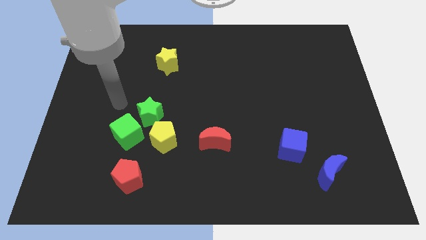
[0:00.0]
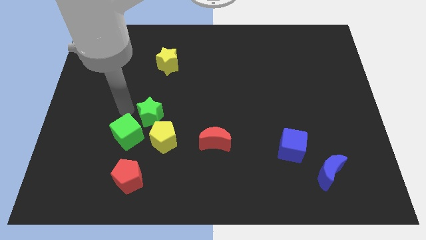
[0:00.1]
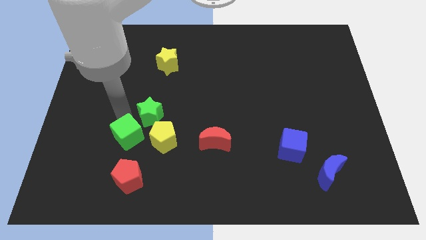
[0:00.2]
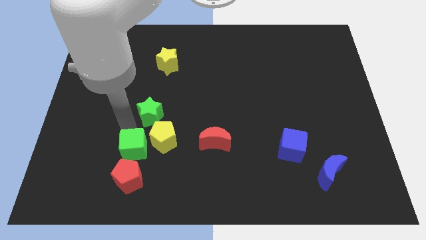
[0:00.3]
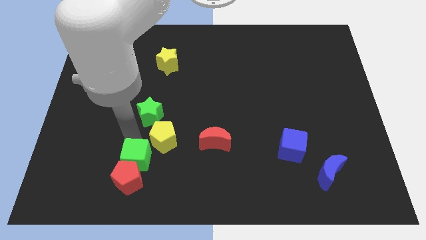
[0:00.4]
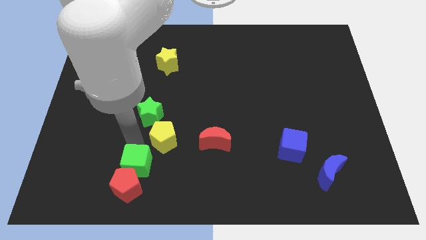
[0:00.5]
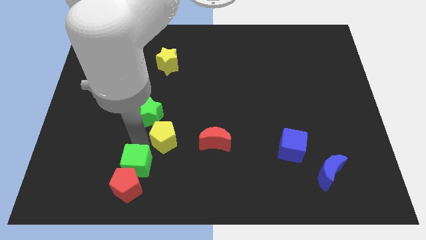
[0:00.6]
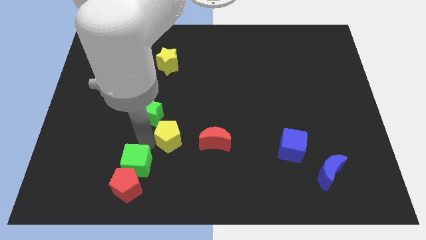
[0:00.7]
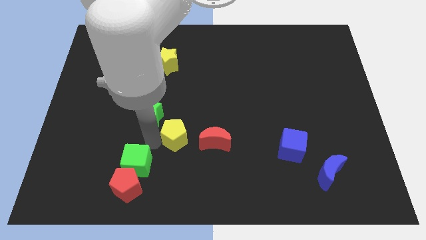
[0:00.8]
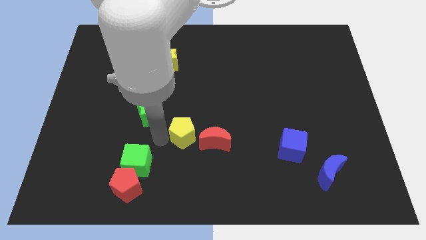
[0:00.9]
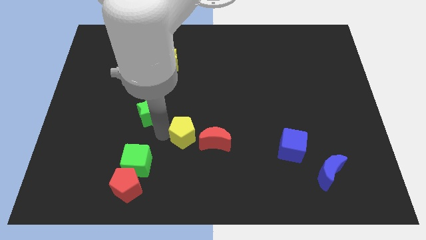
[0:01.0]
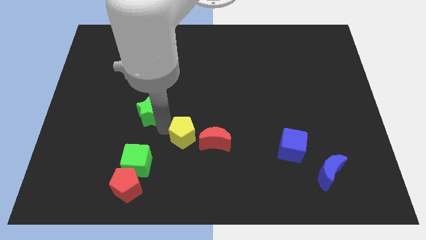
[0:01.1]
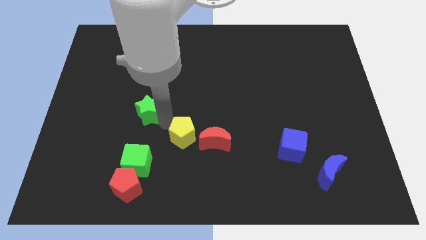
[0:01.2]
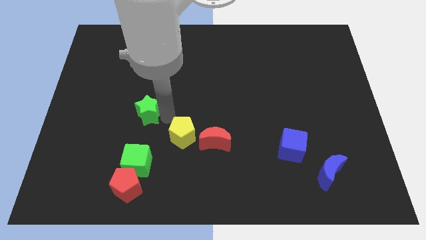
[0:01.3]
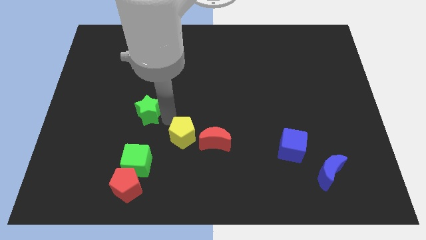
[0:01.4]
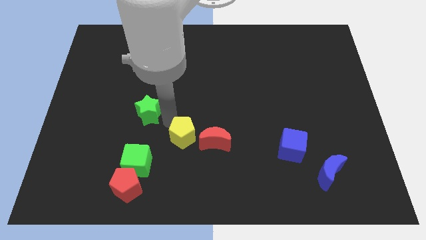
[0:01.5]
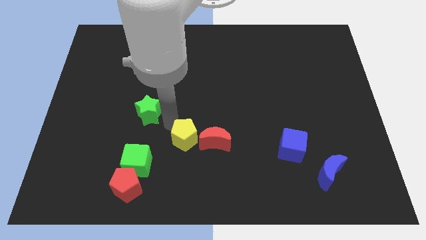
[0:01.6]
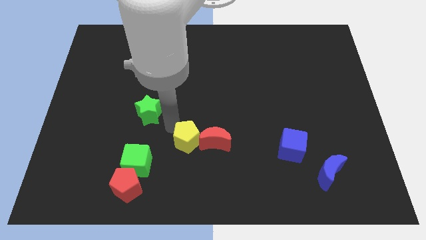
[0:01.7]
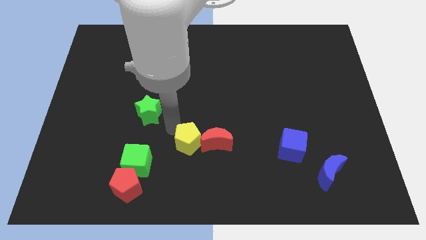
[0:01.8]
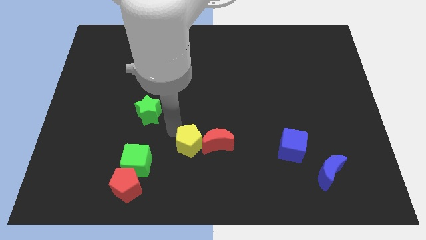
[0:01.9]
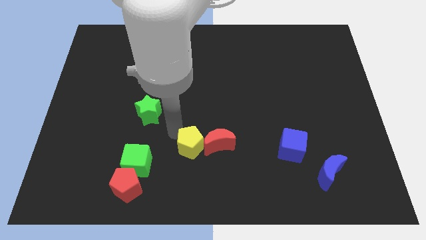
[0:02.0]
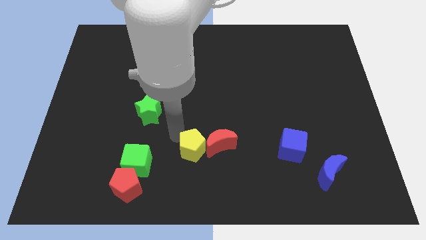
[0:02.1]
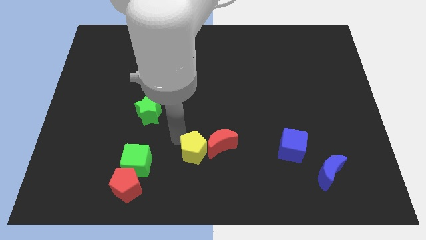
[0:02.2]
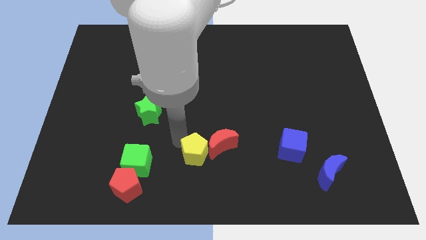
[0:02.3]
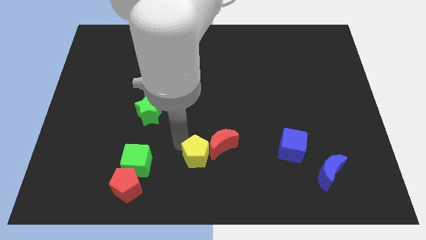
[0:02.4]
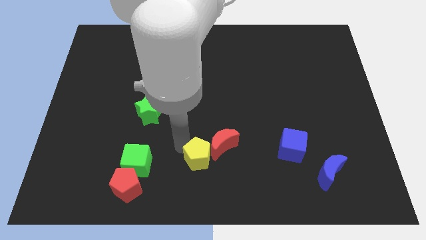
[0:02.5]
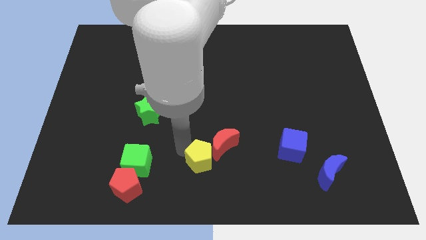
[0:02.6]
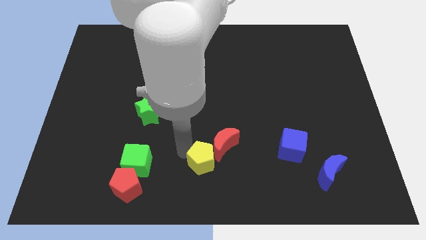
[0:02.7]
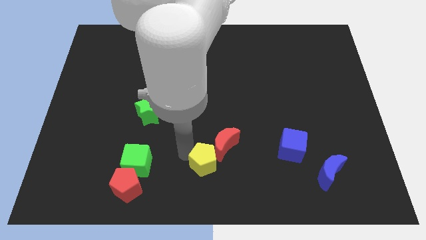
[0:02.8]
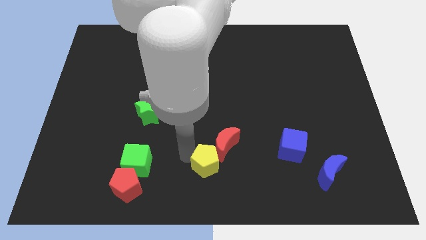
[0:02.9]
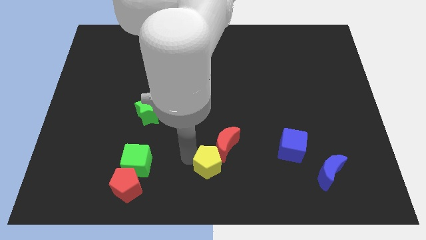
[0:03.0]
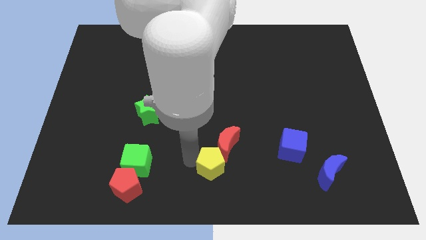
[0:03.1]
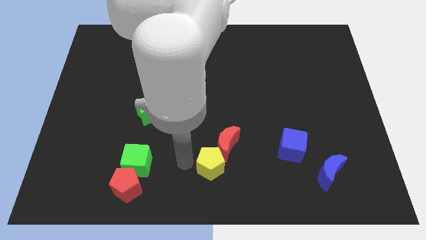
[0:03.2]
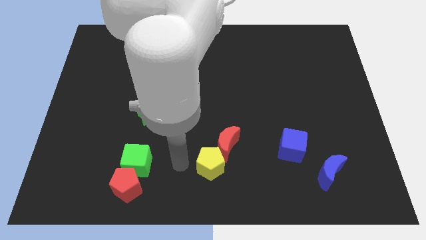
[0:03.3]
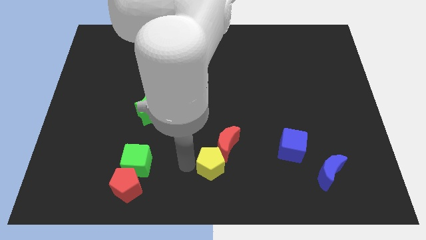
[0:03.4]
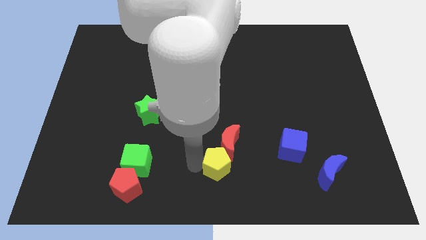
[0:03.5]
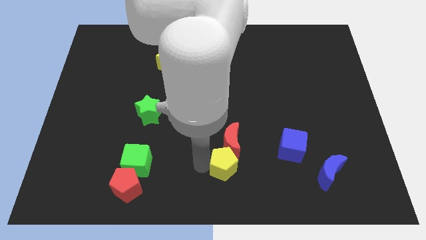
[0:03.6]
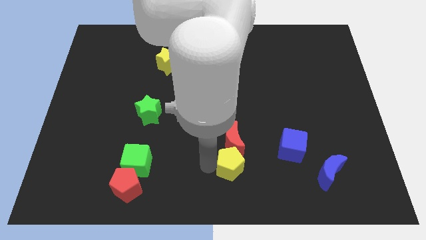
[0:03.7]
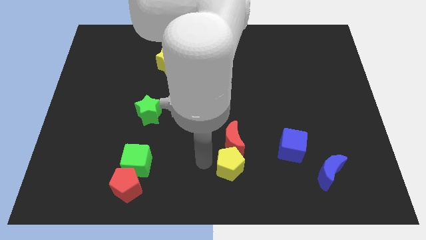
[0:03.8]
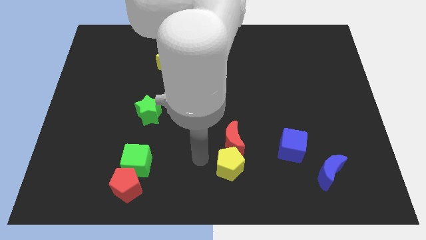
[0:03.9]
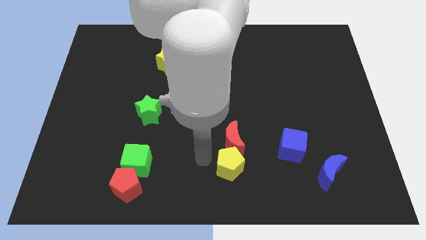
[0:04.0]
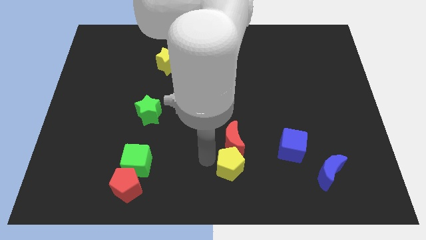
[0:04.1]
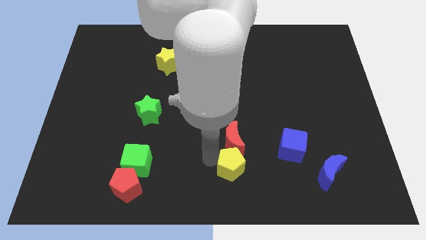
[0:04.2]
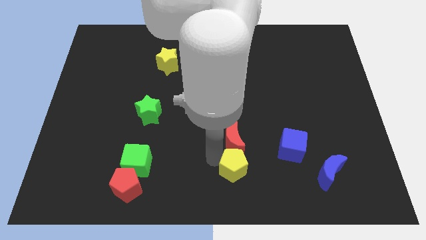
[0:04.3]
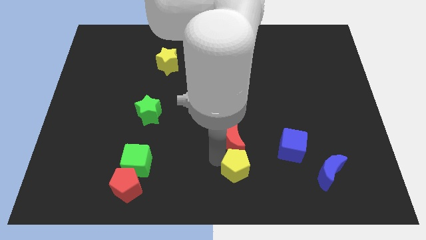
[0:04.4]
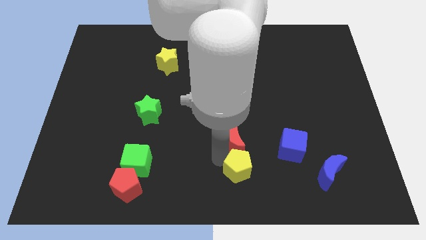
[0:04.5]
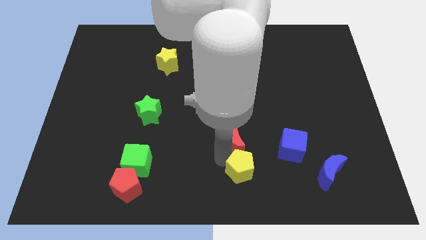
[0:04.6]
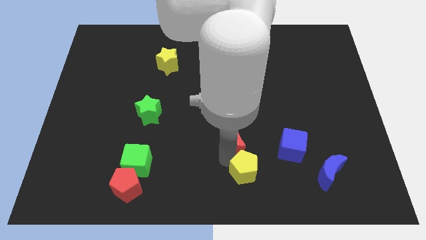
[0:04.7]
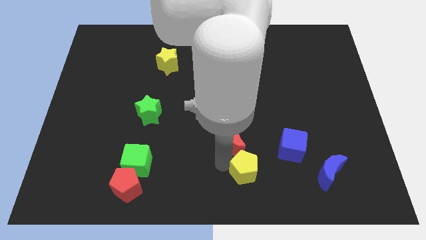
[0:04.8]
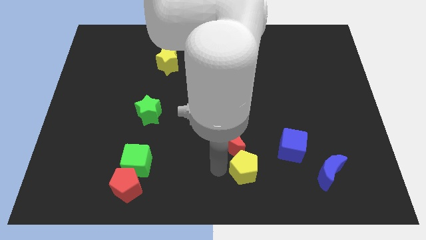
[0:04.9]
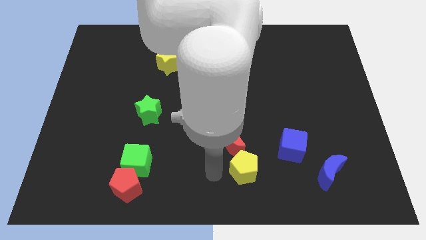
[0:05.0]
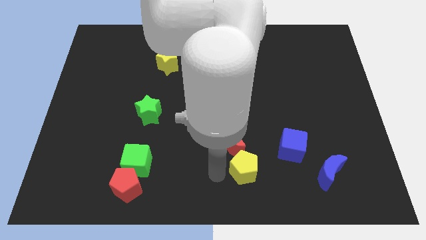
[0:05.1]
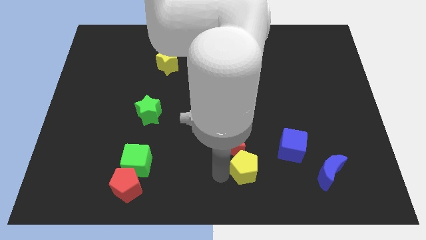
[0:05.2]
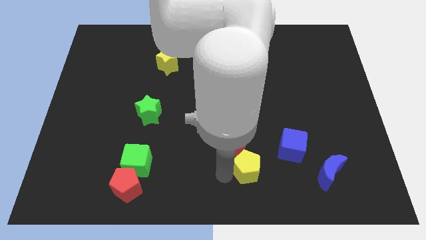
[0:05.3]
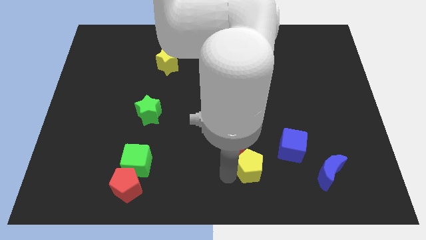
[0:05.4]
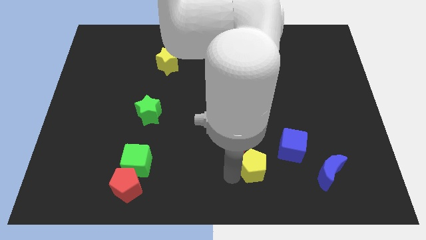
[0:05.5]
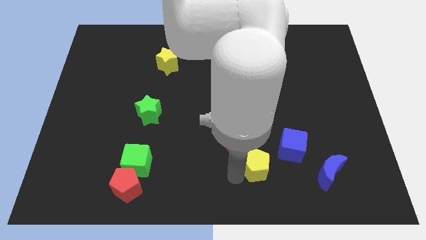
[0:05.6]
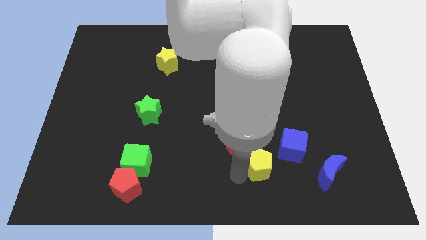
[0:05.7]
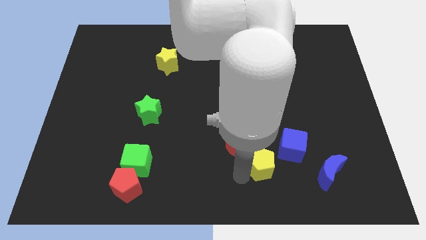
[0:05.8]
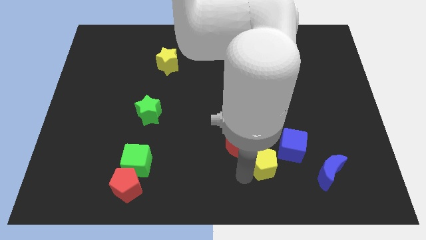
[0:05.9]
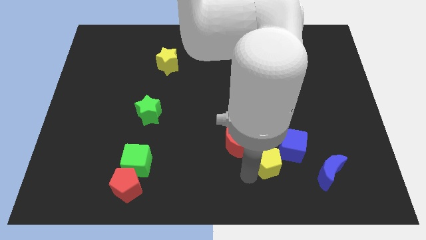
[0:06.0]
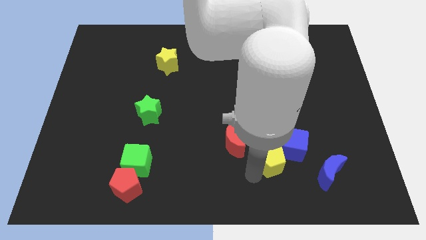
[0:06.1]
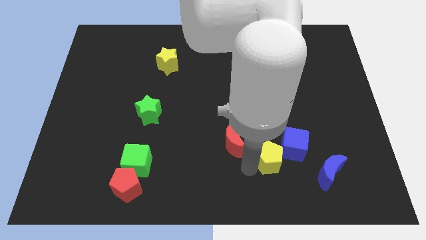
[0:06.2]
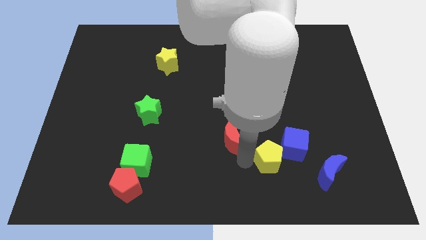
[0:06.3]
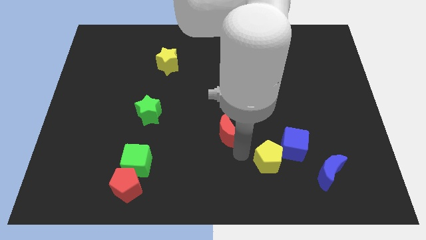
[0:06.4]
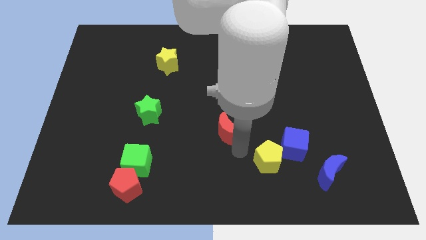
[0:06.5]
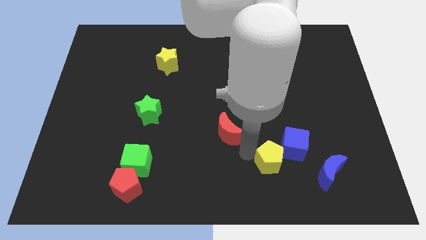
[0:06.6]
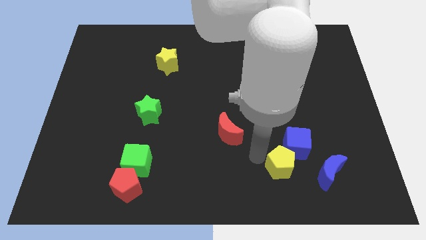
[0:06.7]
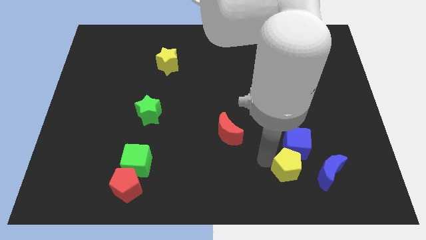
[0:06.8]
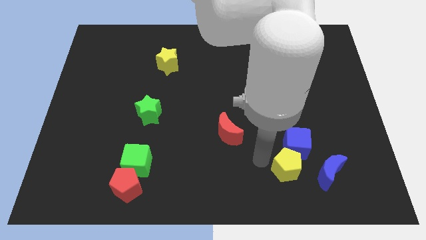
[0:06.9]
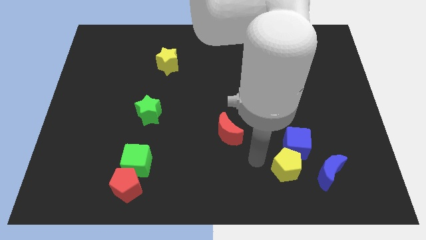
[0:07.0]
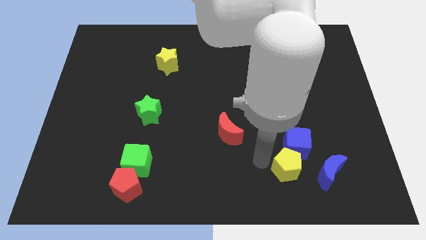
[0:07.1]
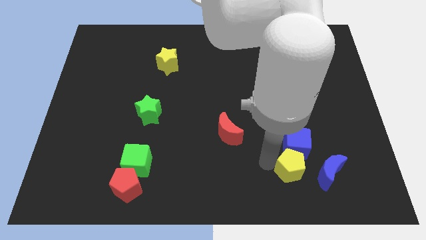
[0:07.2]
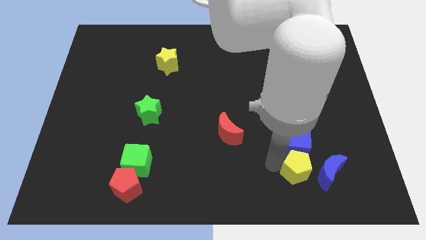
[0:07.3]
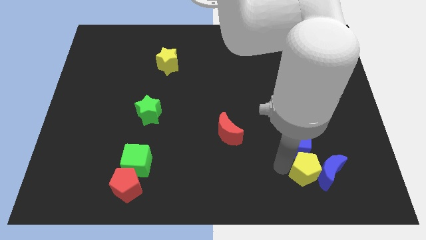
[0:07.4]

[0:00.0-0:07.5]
put the yellow pentagon close to the blue moon

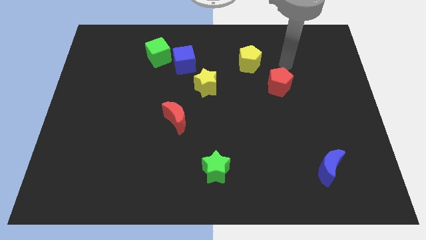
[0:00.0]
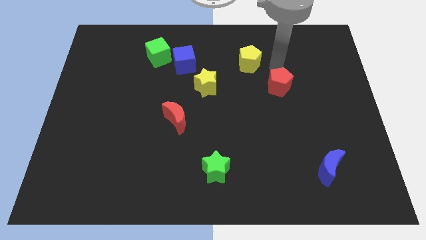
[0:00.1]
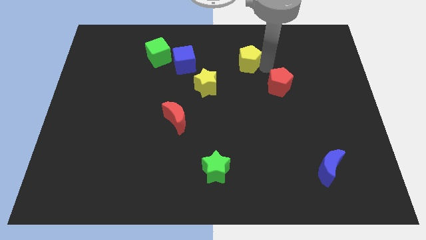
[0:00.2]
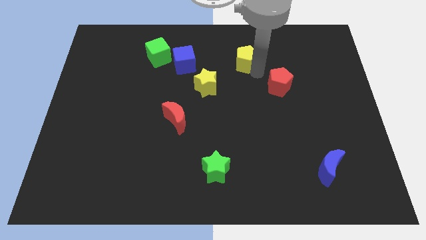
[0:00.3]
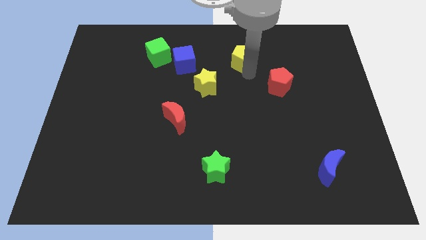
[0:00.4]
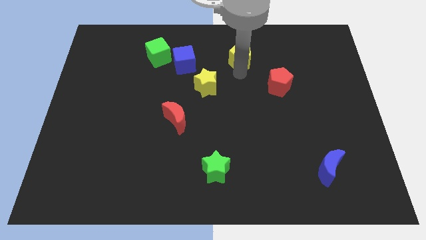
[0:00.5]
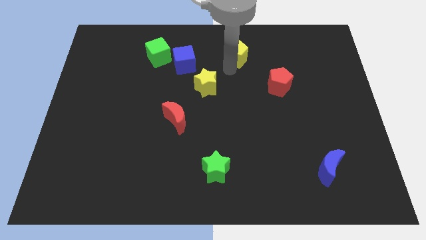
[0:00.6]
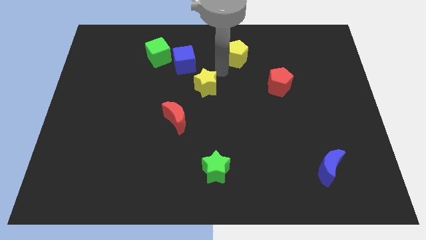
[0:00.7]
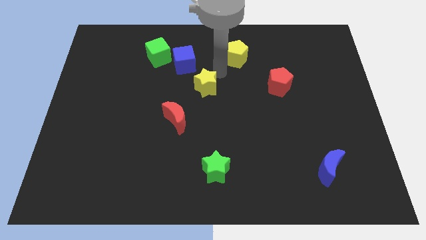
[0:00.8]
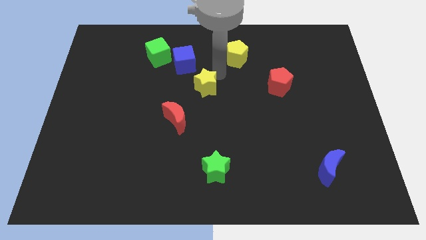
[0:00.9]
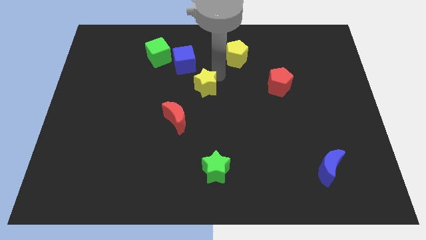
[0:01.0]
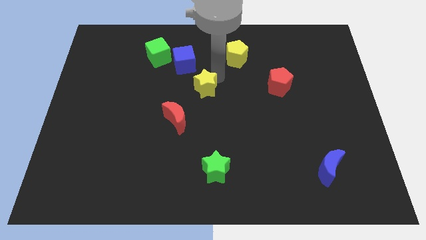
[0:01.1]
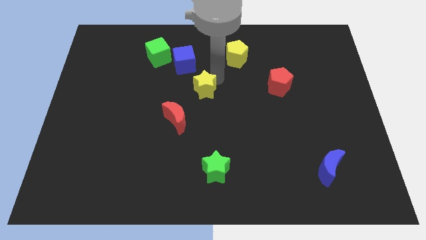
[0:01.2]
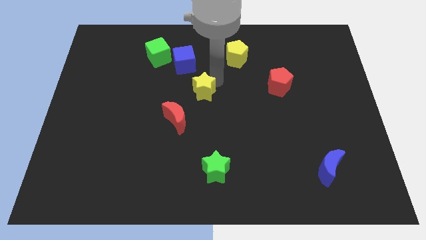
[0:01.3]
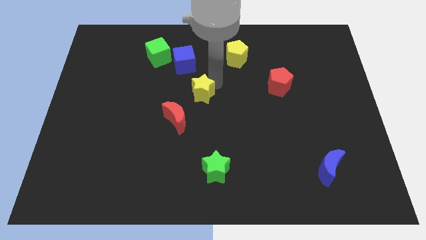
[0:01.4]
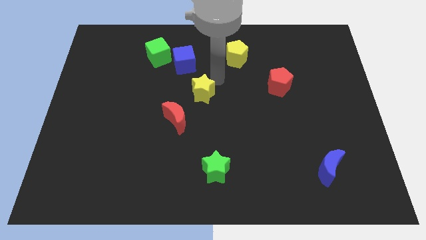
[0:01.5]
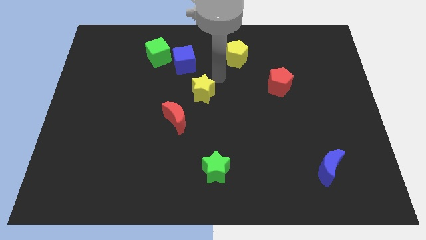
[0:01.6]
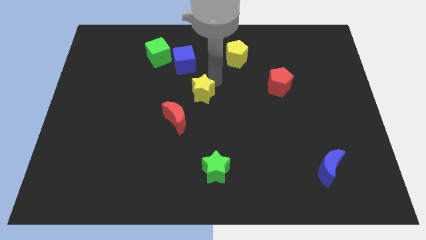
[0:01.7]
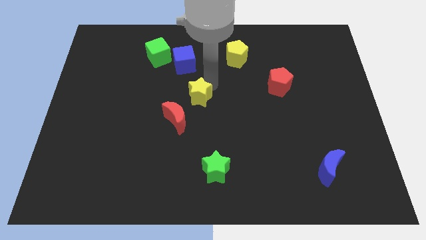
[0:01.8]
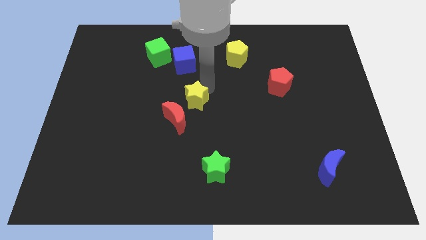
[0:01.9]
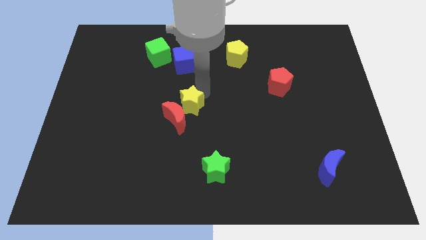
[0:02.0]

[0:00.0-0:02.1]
push the yellow star close to the red moon
